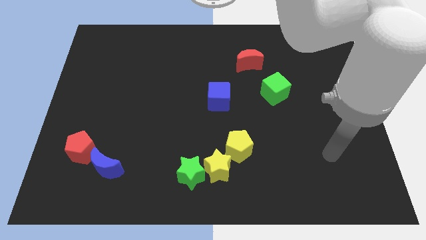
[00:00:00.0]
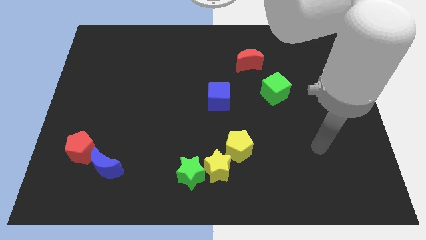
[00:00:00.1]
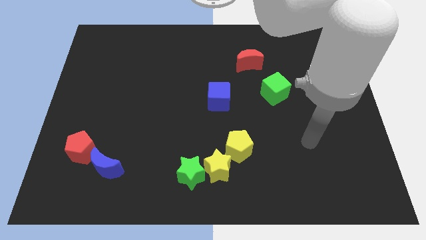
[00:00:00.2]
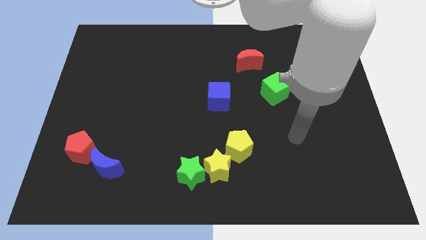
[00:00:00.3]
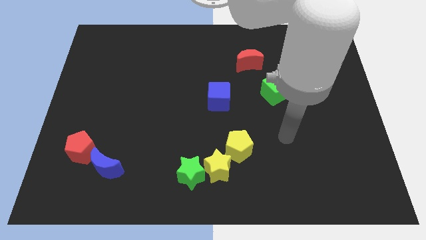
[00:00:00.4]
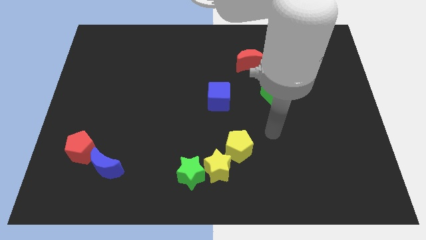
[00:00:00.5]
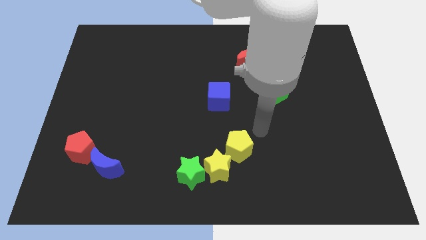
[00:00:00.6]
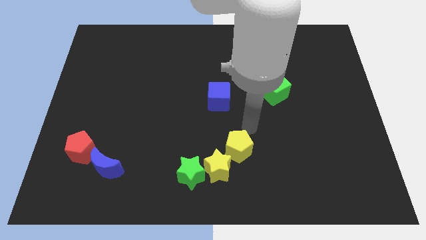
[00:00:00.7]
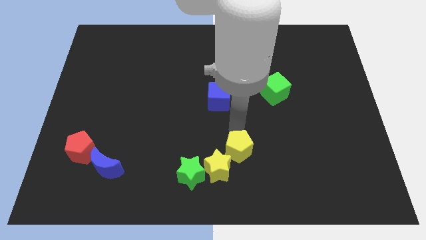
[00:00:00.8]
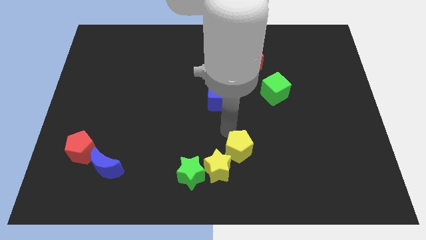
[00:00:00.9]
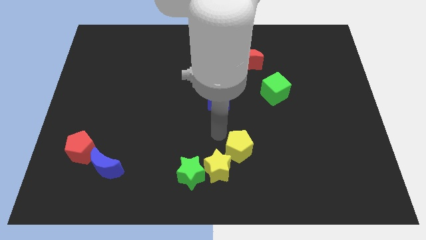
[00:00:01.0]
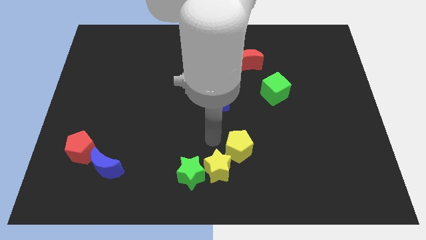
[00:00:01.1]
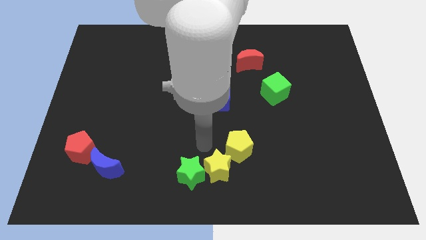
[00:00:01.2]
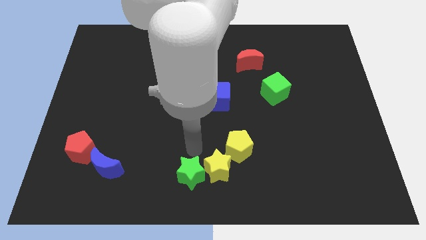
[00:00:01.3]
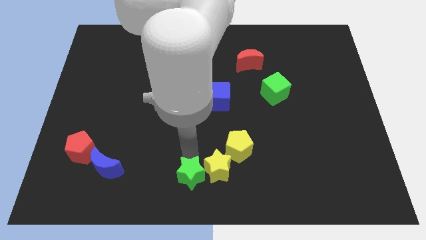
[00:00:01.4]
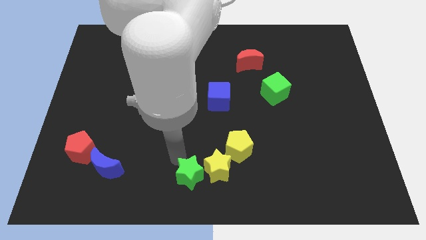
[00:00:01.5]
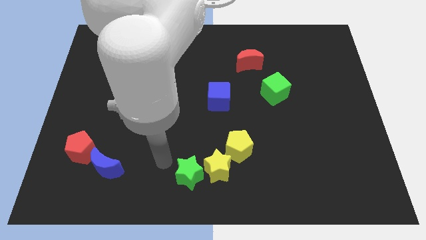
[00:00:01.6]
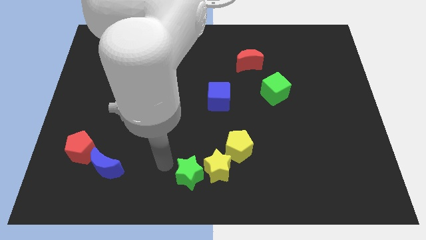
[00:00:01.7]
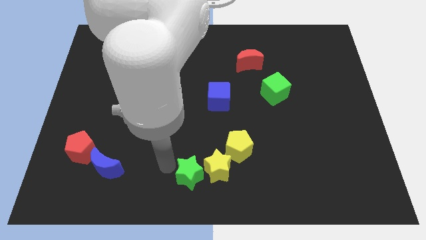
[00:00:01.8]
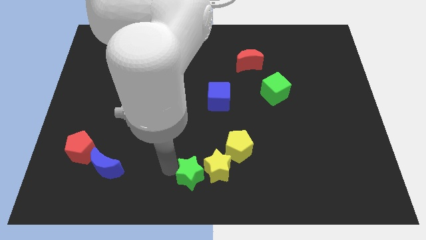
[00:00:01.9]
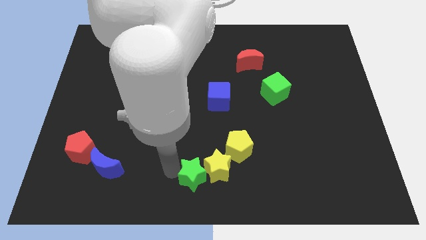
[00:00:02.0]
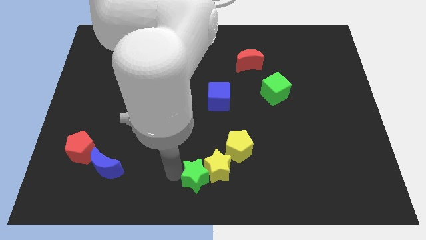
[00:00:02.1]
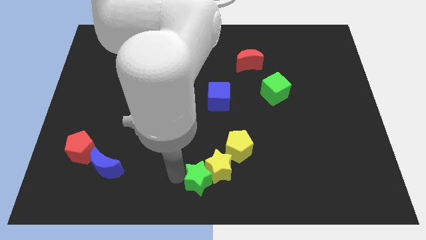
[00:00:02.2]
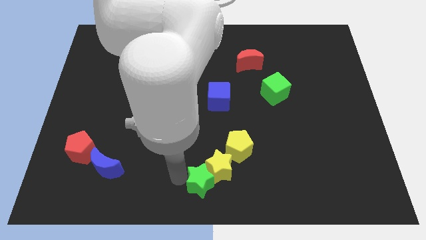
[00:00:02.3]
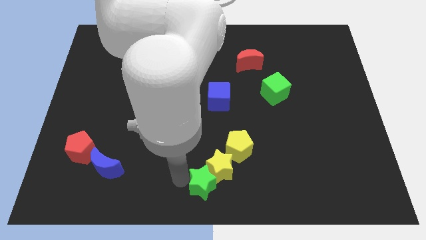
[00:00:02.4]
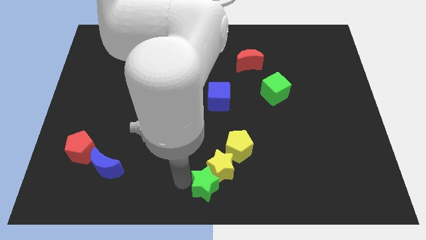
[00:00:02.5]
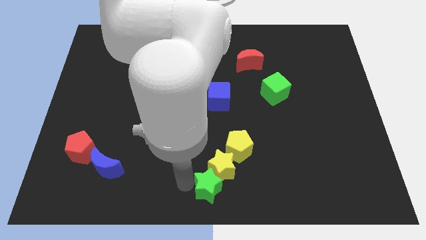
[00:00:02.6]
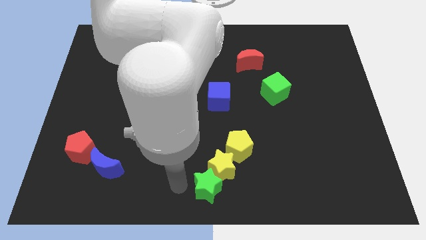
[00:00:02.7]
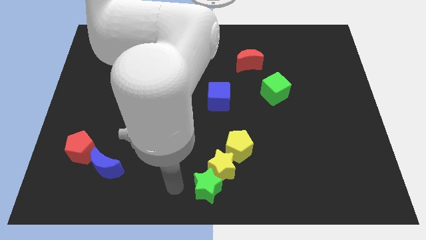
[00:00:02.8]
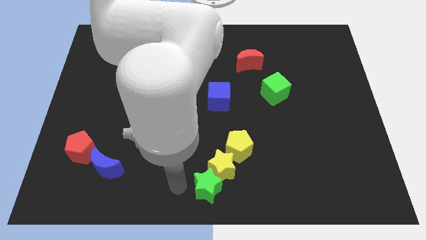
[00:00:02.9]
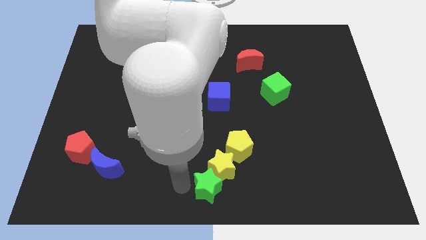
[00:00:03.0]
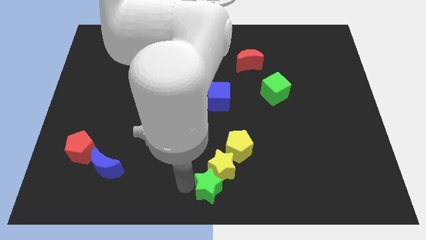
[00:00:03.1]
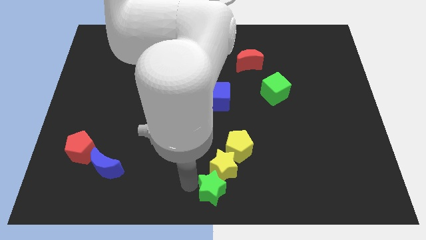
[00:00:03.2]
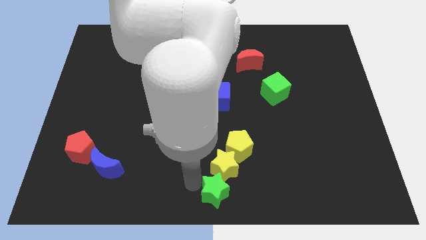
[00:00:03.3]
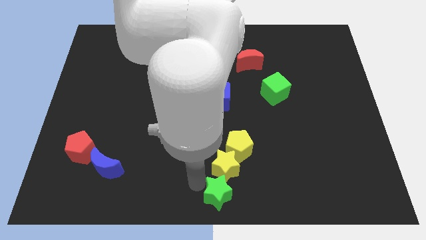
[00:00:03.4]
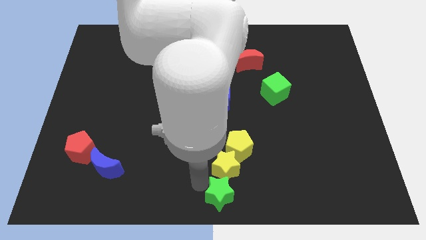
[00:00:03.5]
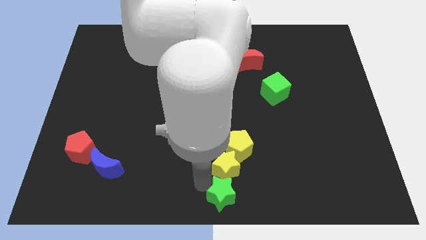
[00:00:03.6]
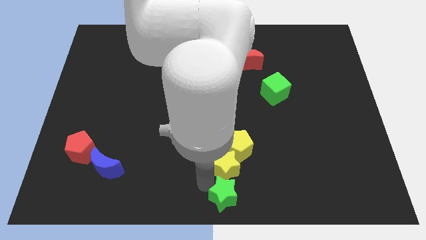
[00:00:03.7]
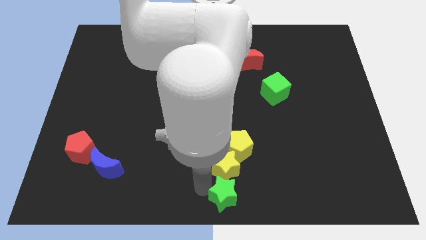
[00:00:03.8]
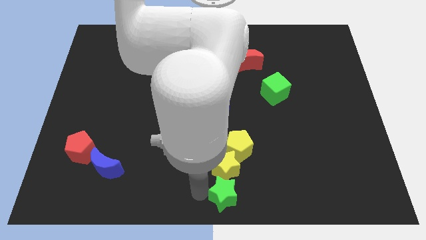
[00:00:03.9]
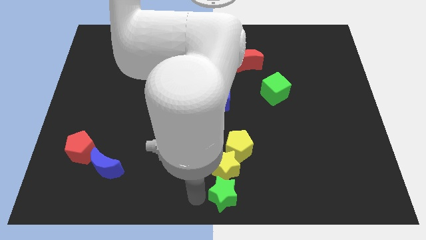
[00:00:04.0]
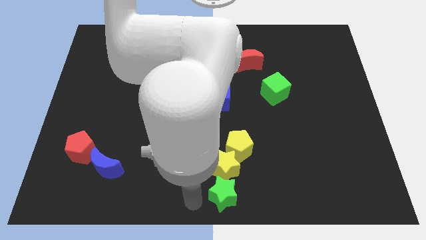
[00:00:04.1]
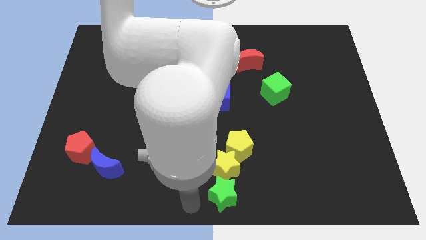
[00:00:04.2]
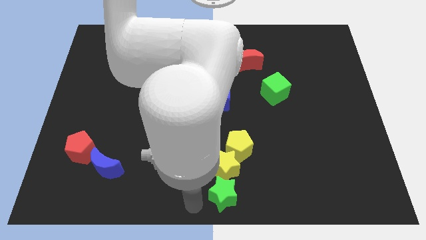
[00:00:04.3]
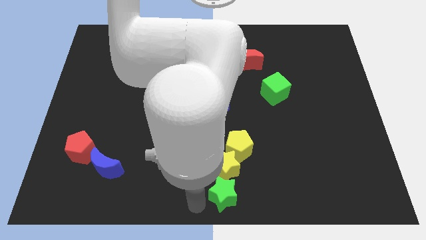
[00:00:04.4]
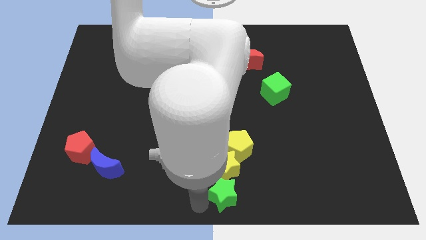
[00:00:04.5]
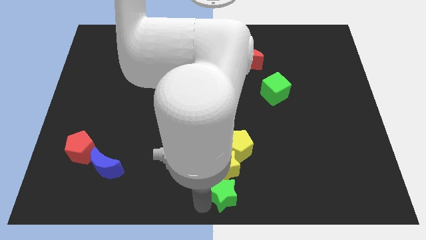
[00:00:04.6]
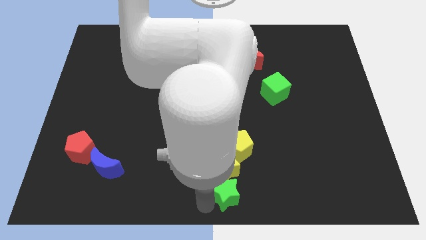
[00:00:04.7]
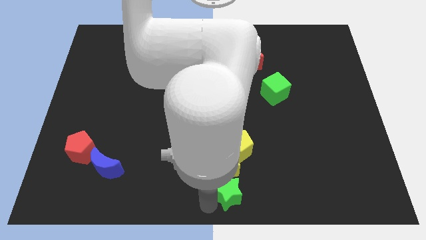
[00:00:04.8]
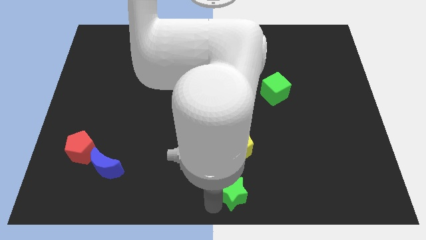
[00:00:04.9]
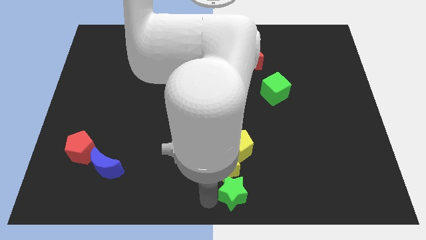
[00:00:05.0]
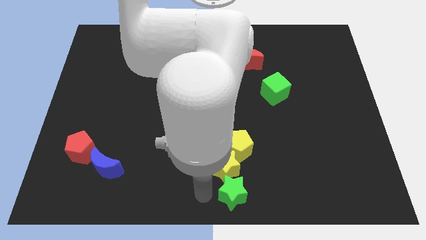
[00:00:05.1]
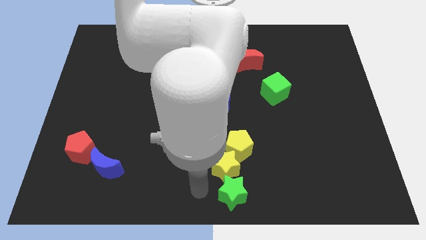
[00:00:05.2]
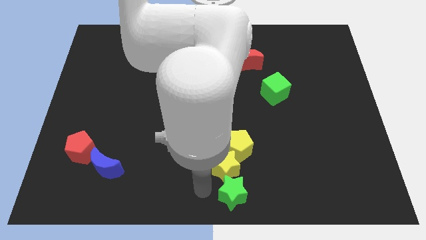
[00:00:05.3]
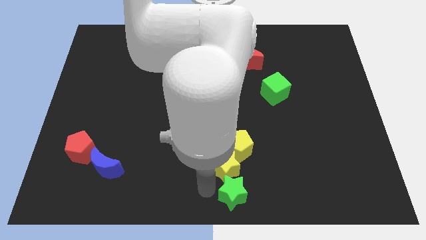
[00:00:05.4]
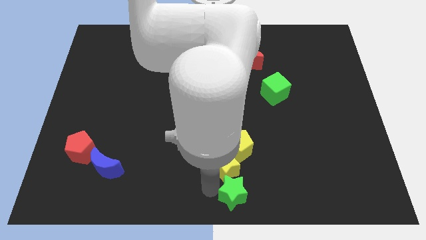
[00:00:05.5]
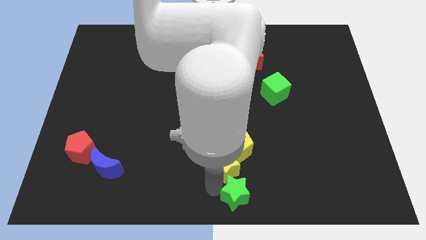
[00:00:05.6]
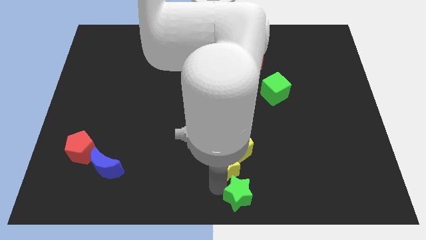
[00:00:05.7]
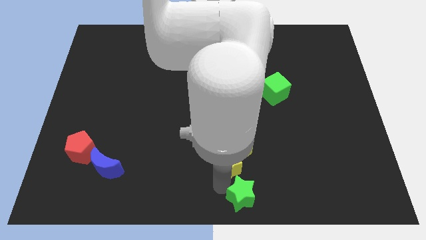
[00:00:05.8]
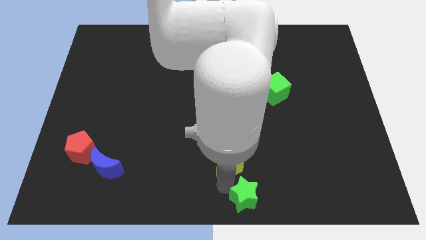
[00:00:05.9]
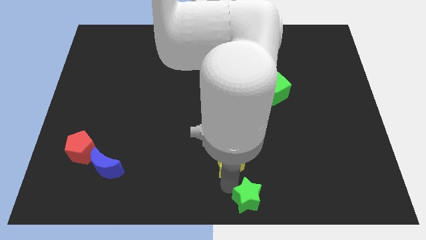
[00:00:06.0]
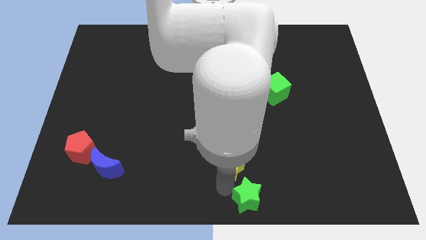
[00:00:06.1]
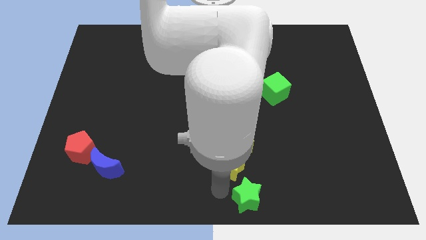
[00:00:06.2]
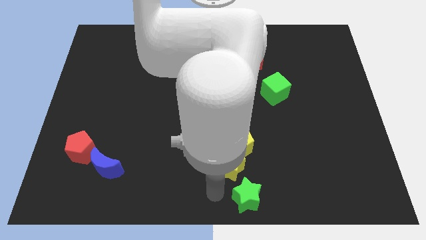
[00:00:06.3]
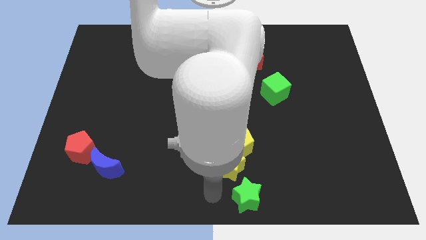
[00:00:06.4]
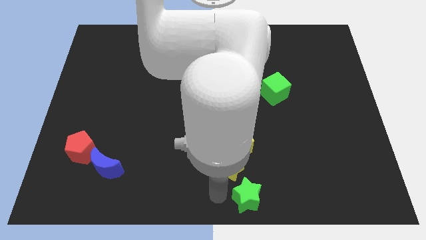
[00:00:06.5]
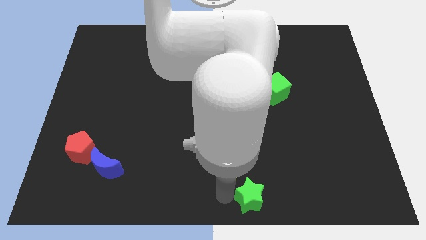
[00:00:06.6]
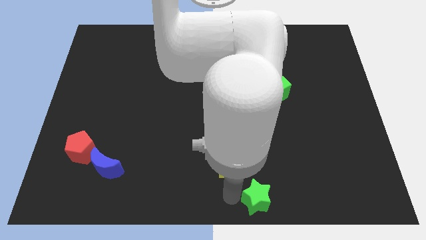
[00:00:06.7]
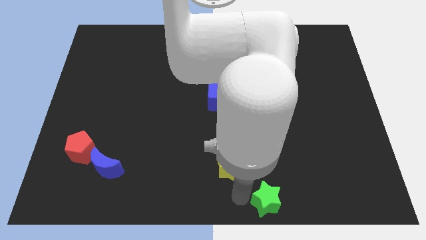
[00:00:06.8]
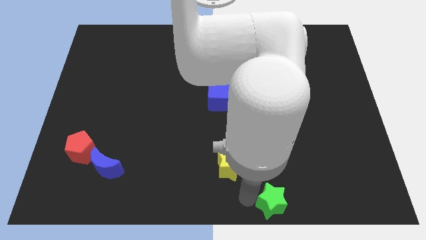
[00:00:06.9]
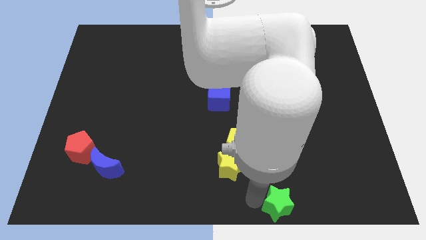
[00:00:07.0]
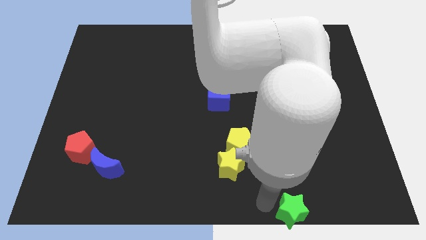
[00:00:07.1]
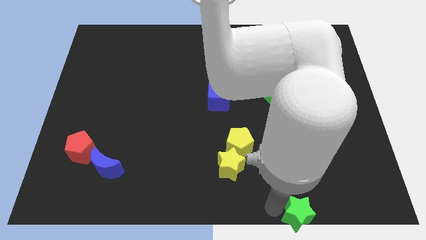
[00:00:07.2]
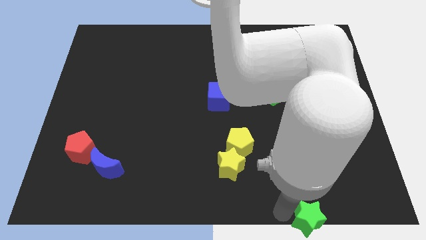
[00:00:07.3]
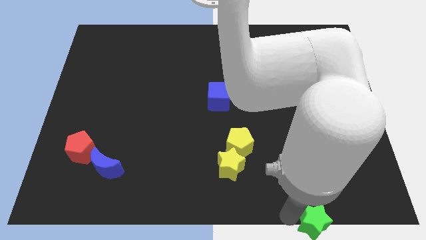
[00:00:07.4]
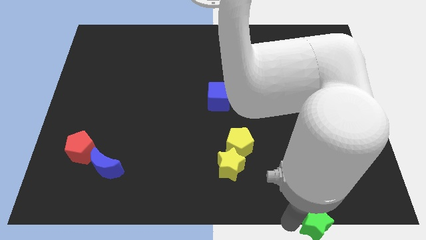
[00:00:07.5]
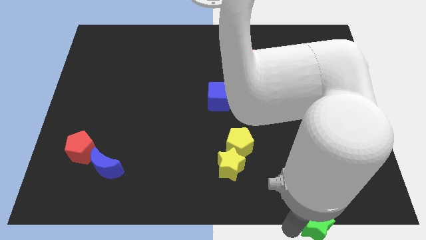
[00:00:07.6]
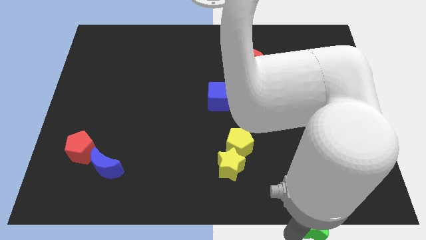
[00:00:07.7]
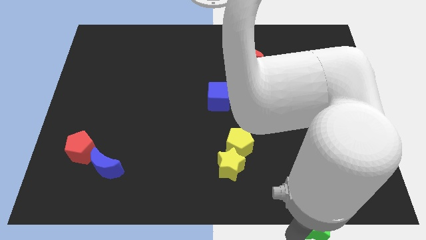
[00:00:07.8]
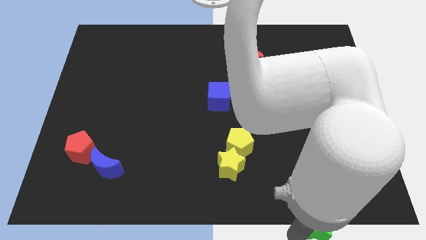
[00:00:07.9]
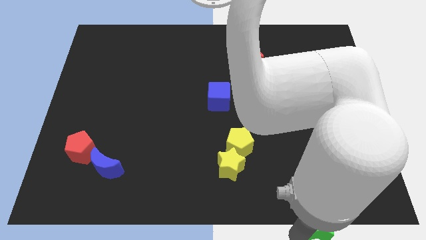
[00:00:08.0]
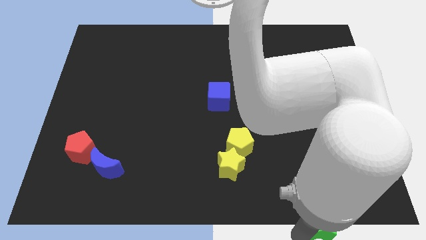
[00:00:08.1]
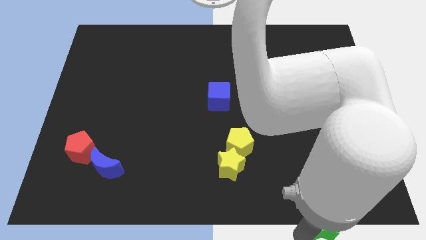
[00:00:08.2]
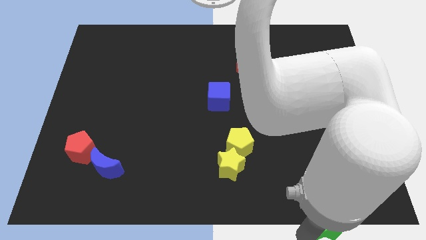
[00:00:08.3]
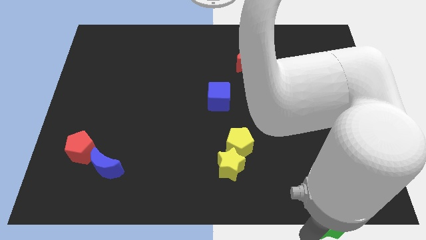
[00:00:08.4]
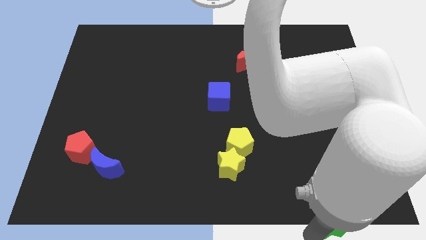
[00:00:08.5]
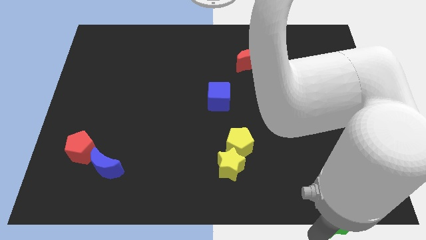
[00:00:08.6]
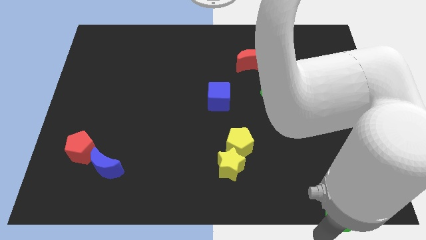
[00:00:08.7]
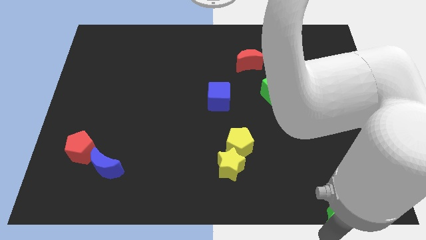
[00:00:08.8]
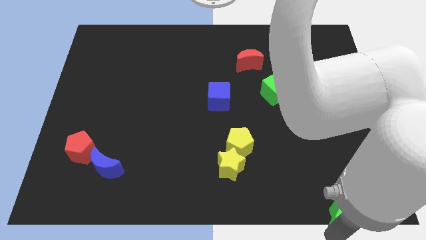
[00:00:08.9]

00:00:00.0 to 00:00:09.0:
slide the green star to the bottom right
